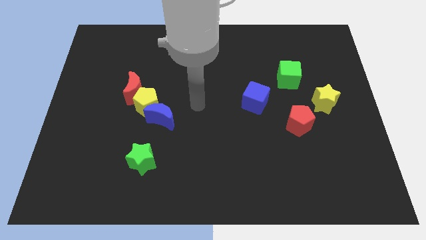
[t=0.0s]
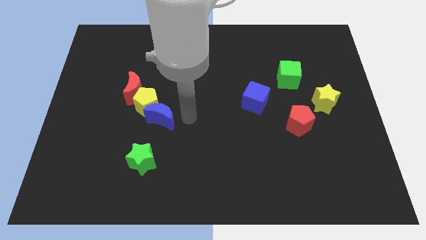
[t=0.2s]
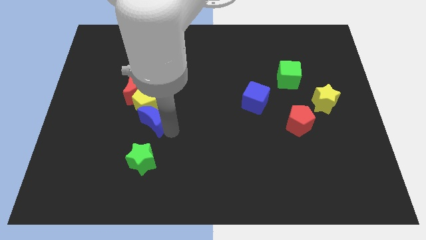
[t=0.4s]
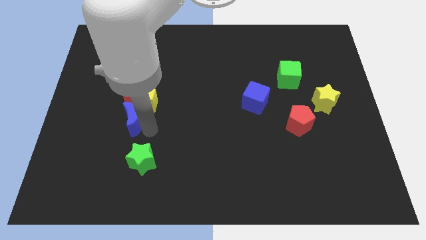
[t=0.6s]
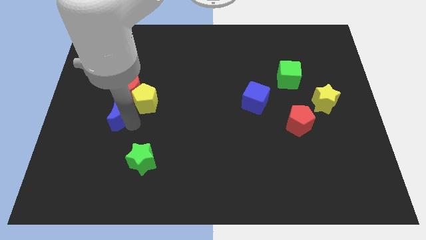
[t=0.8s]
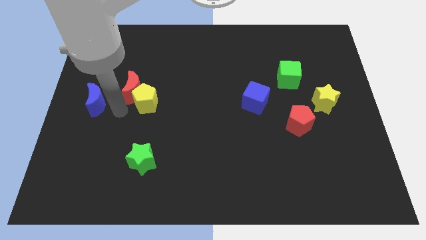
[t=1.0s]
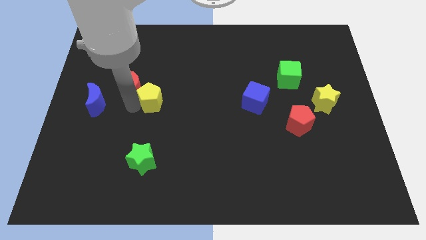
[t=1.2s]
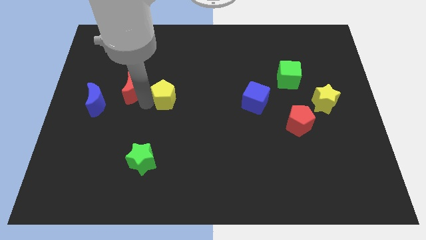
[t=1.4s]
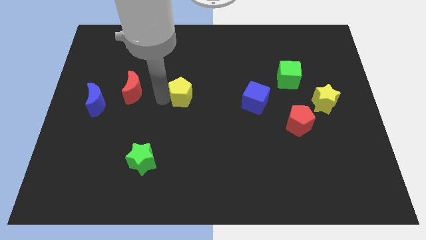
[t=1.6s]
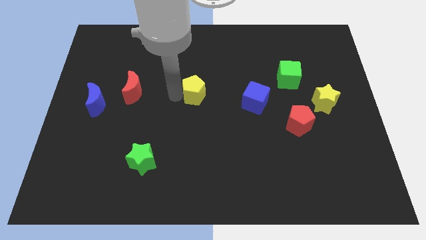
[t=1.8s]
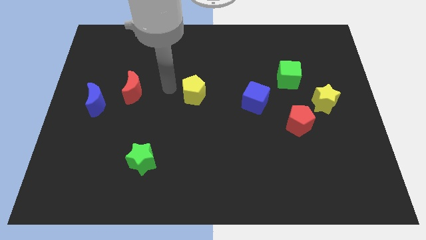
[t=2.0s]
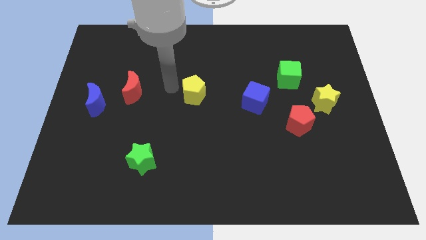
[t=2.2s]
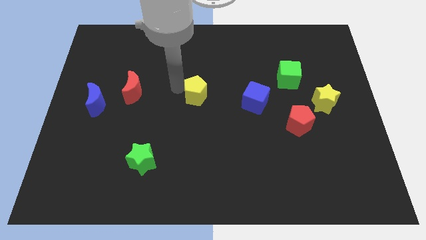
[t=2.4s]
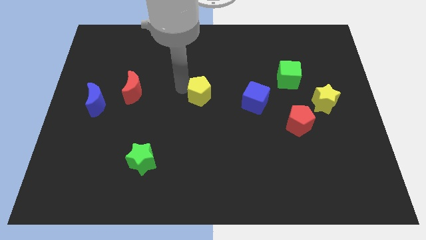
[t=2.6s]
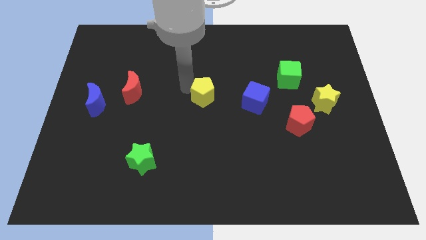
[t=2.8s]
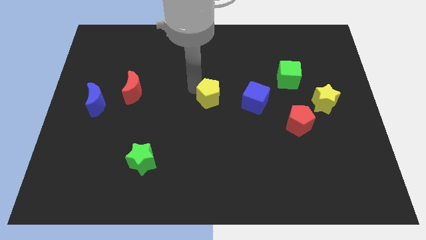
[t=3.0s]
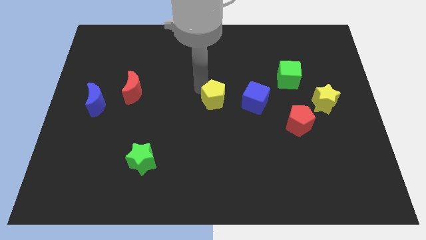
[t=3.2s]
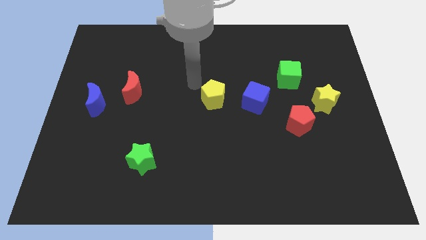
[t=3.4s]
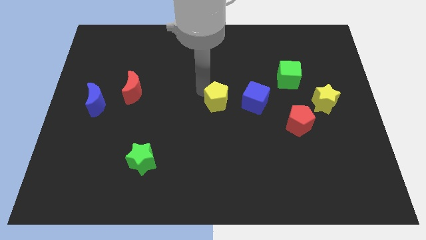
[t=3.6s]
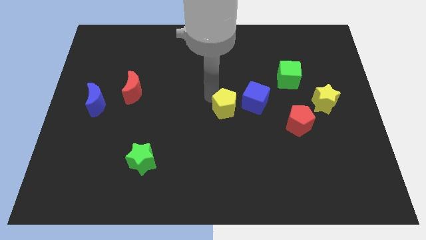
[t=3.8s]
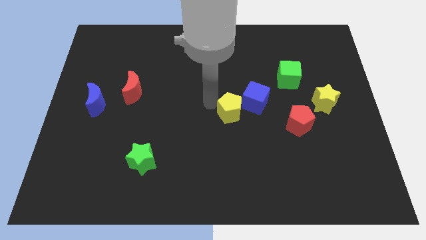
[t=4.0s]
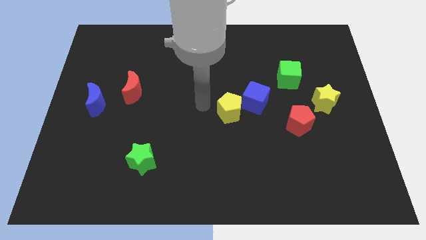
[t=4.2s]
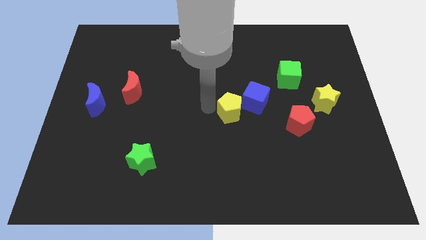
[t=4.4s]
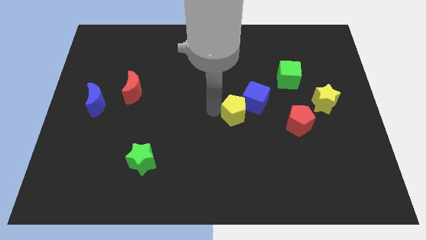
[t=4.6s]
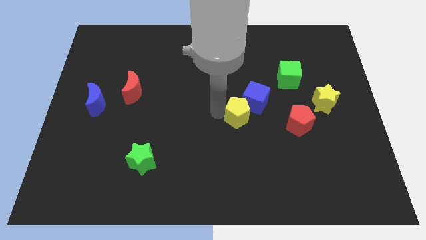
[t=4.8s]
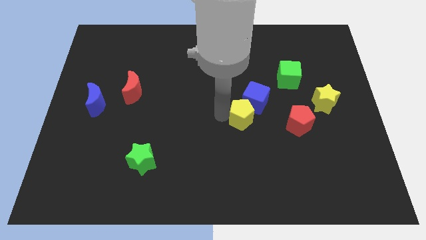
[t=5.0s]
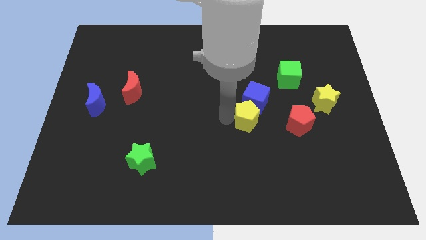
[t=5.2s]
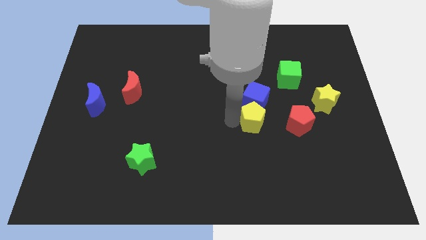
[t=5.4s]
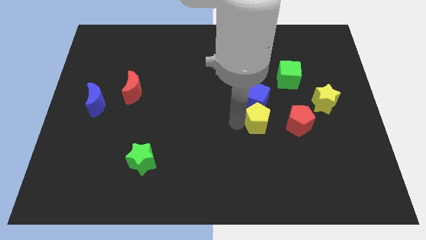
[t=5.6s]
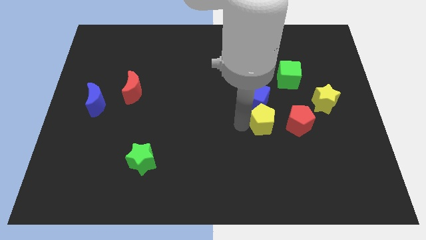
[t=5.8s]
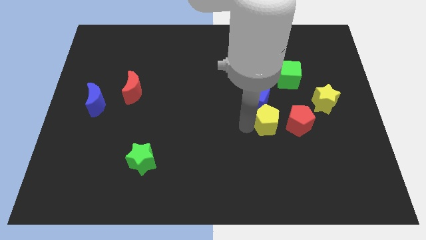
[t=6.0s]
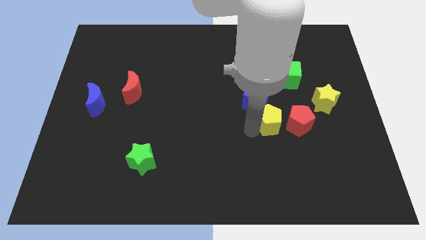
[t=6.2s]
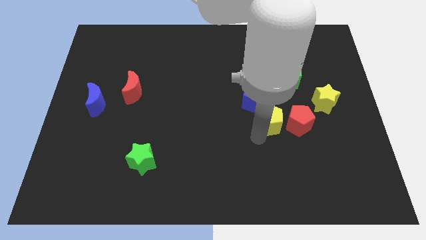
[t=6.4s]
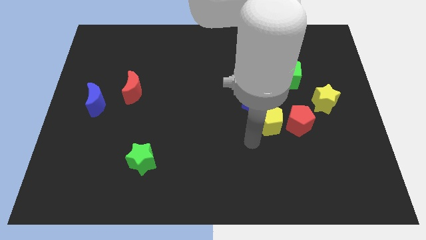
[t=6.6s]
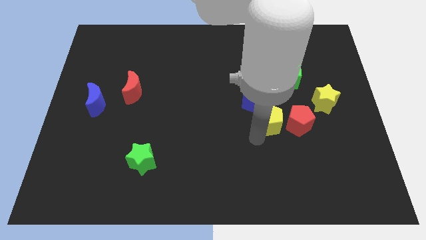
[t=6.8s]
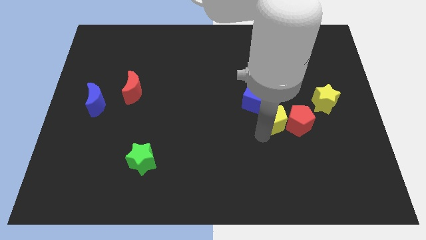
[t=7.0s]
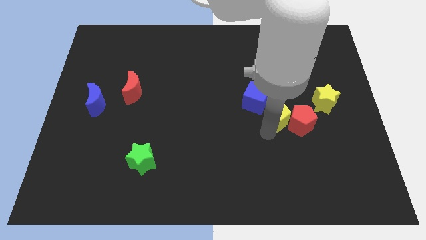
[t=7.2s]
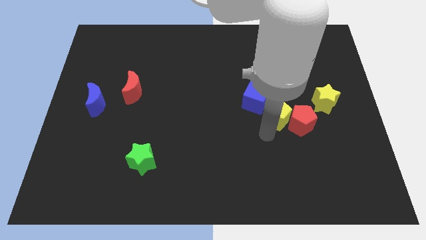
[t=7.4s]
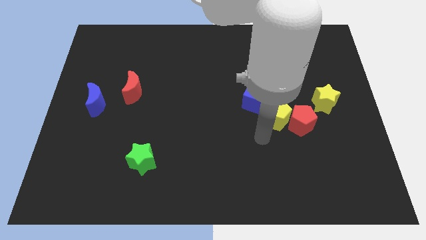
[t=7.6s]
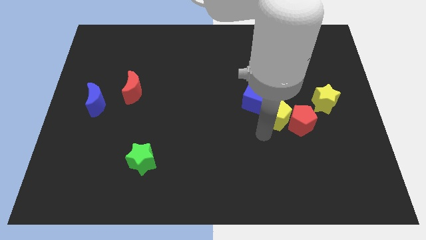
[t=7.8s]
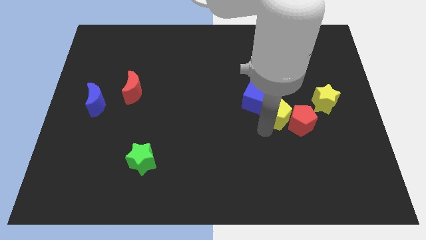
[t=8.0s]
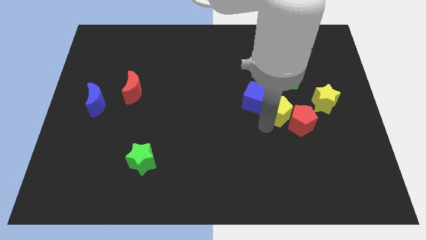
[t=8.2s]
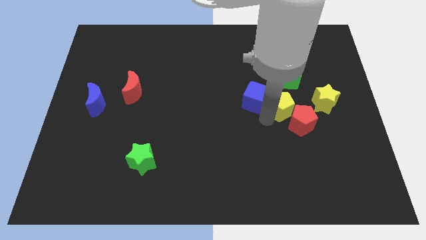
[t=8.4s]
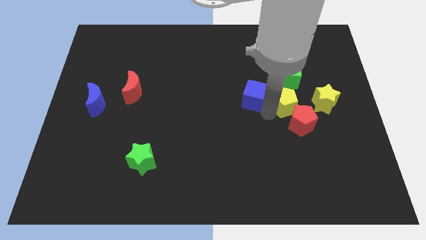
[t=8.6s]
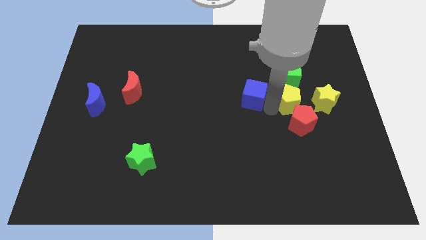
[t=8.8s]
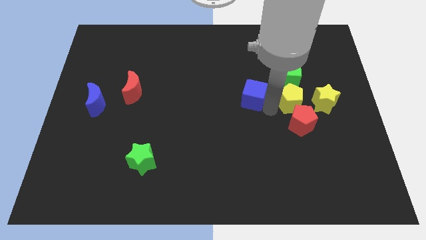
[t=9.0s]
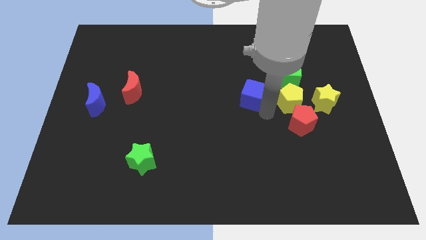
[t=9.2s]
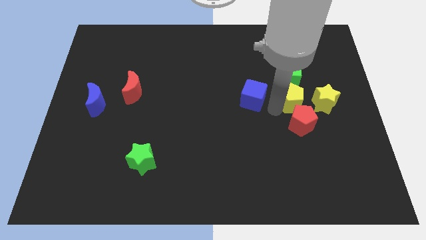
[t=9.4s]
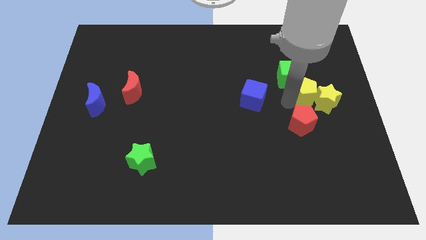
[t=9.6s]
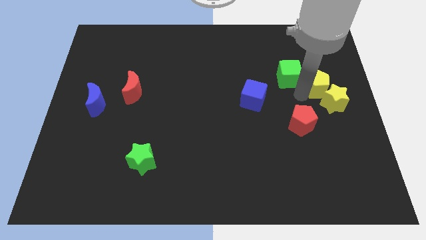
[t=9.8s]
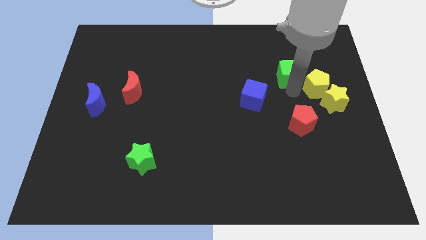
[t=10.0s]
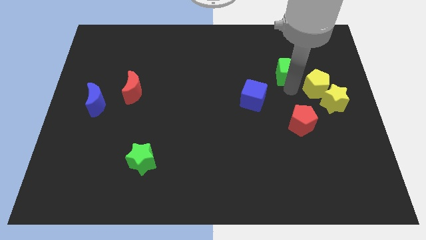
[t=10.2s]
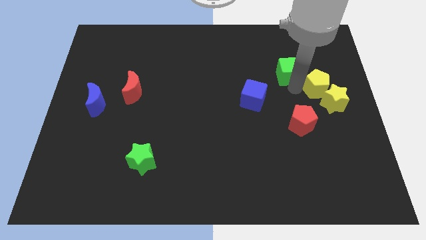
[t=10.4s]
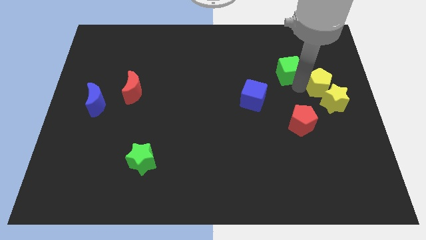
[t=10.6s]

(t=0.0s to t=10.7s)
put the yellow pentagon to the right side of the board

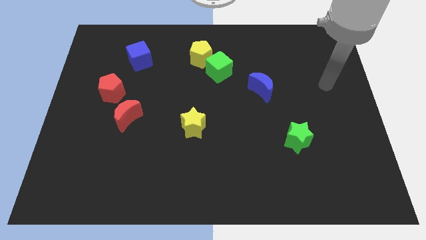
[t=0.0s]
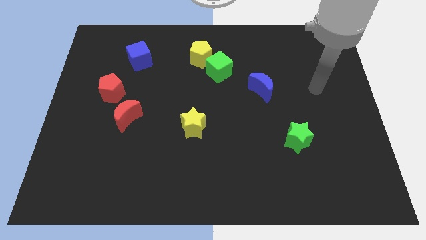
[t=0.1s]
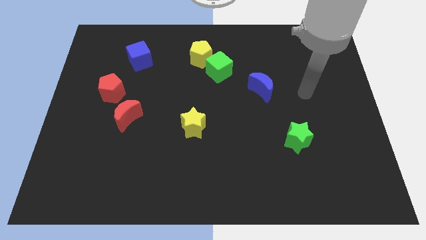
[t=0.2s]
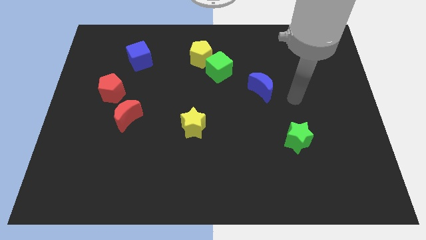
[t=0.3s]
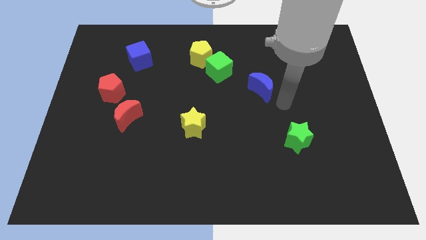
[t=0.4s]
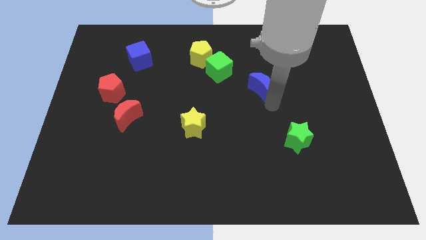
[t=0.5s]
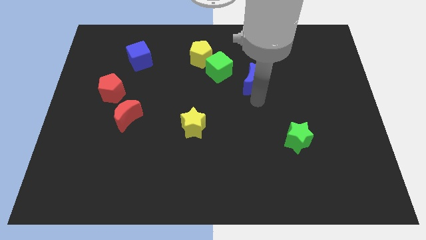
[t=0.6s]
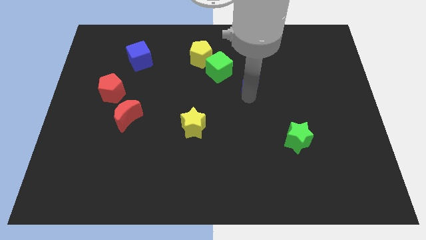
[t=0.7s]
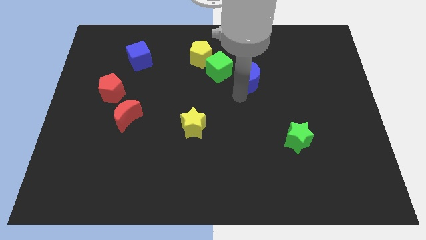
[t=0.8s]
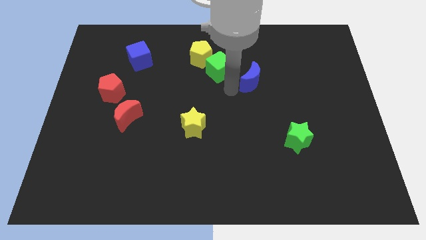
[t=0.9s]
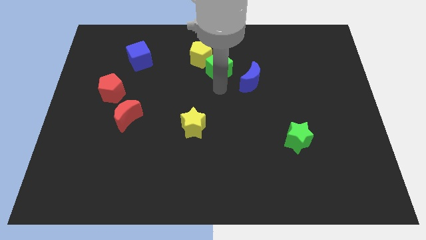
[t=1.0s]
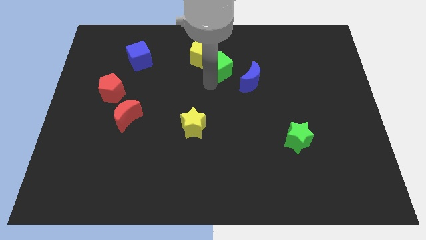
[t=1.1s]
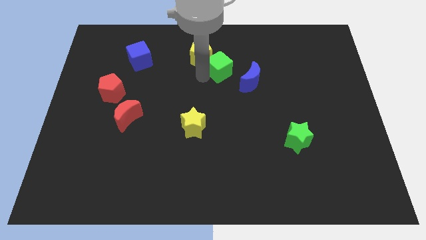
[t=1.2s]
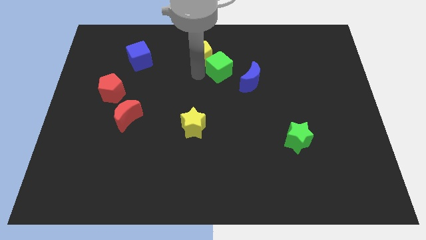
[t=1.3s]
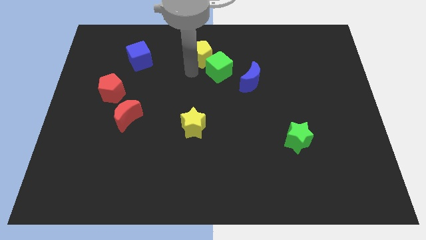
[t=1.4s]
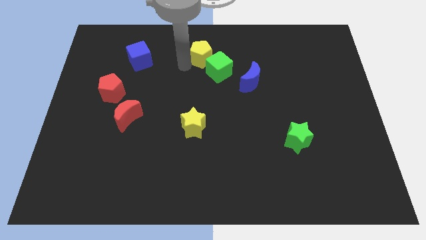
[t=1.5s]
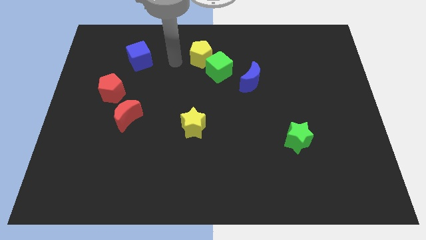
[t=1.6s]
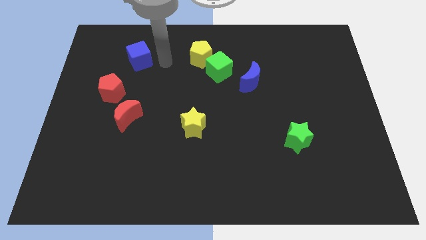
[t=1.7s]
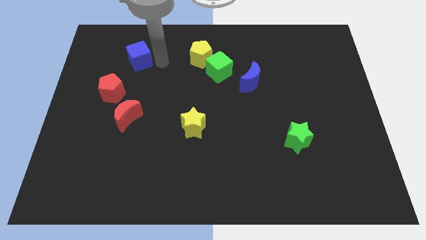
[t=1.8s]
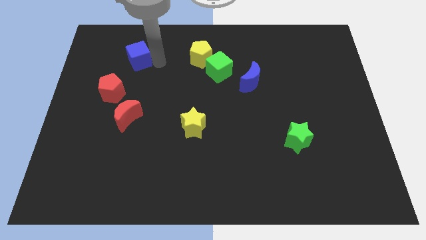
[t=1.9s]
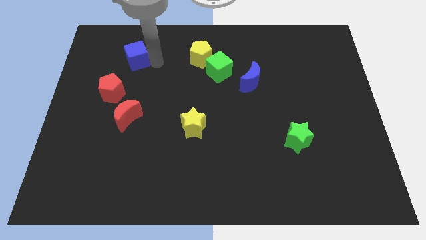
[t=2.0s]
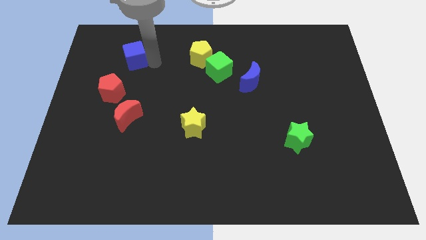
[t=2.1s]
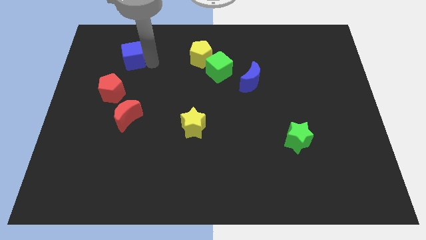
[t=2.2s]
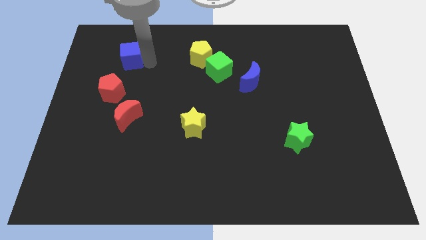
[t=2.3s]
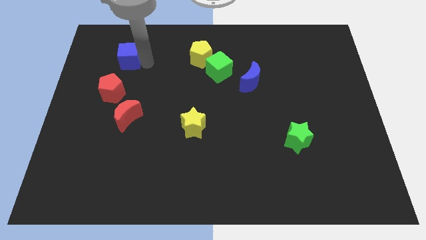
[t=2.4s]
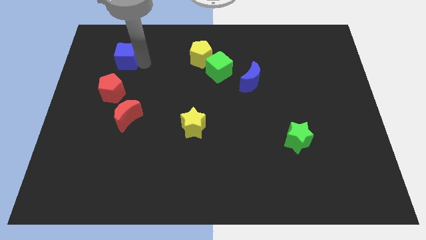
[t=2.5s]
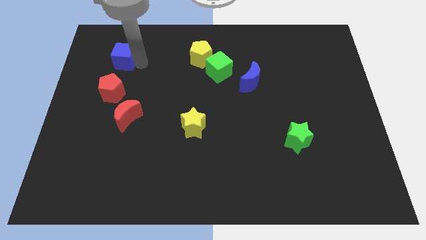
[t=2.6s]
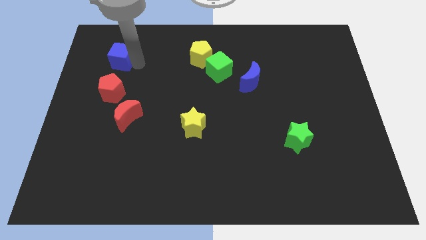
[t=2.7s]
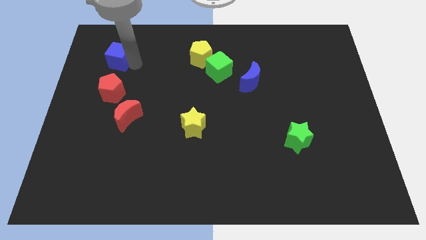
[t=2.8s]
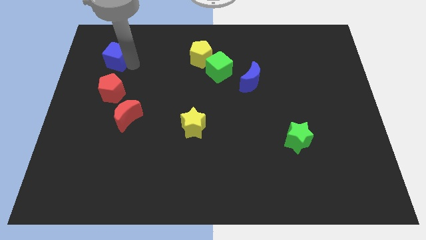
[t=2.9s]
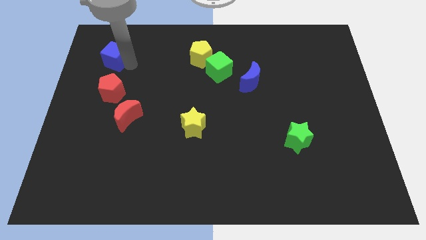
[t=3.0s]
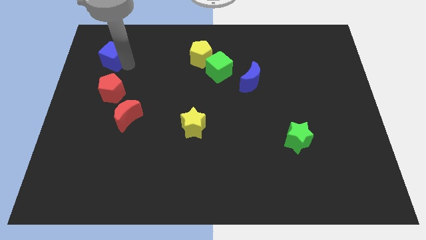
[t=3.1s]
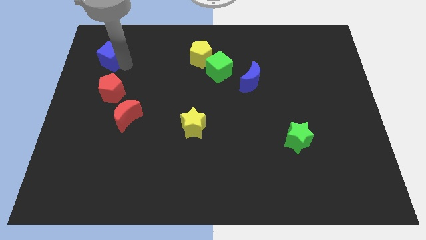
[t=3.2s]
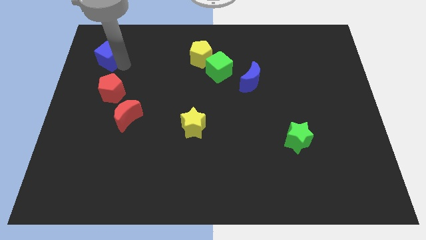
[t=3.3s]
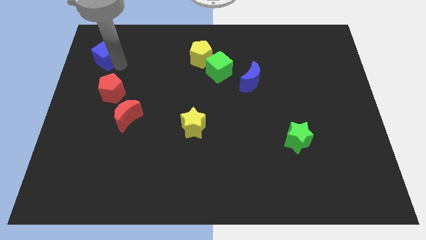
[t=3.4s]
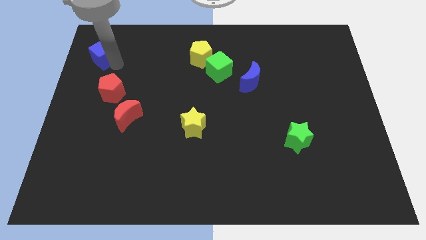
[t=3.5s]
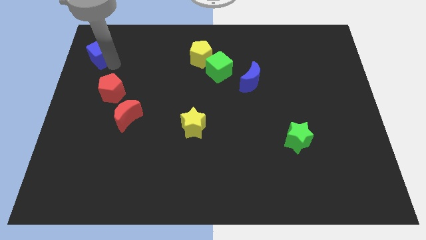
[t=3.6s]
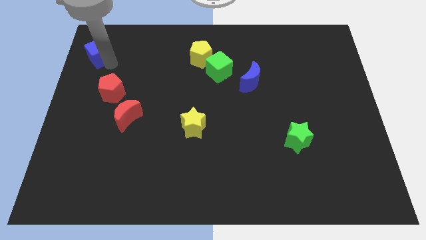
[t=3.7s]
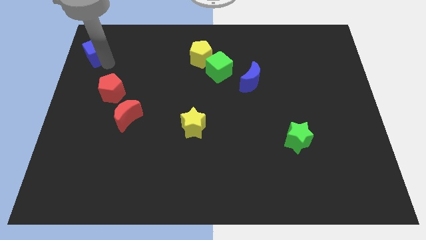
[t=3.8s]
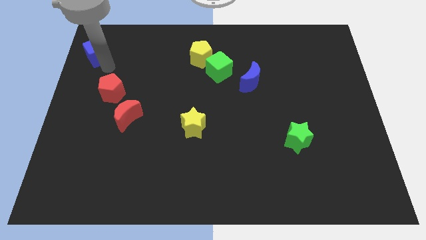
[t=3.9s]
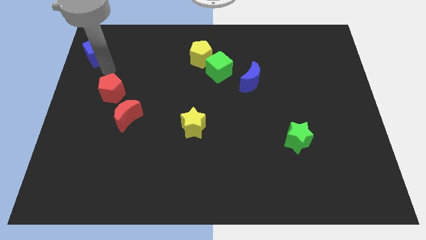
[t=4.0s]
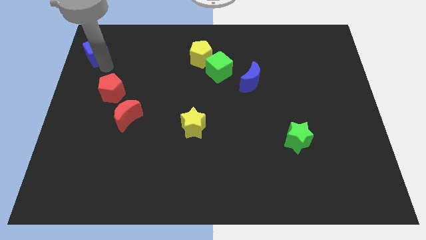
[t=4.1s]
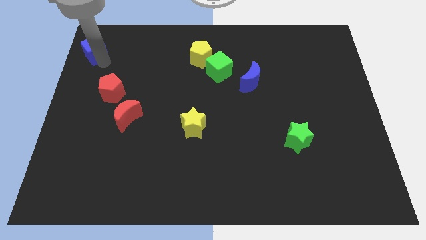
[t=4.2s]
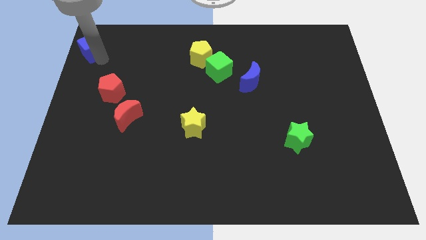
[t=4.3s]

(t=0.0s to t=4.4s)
put the blue cube to the upper left corner
